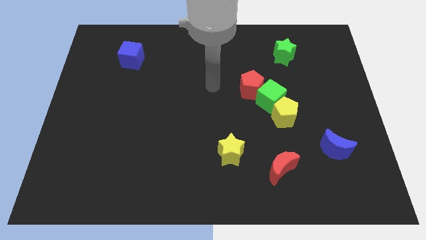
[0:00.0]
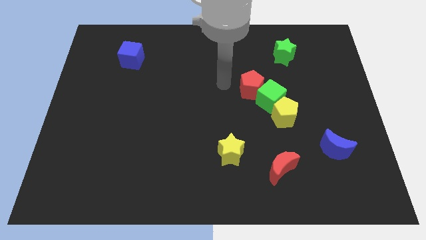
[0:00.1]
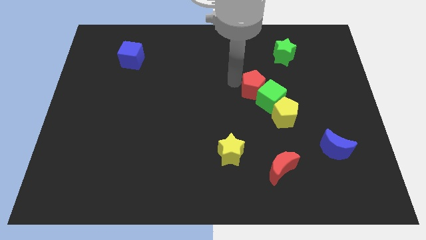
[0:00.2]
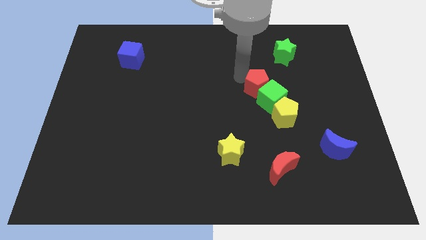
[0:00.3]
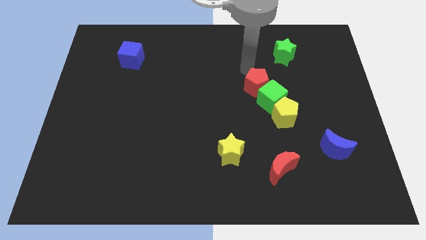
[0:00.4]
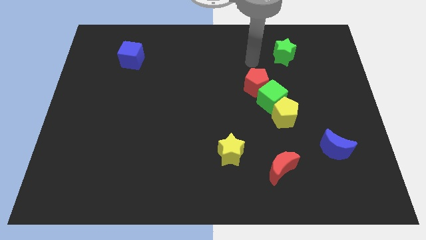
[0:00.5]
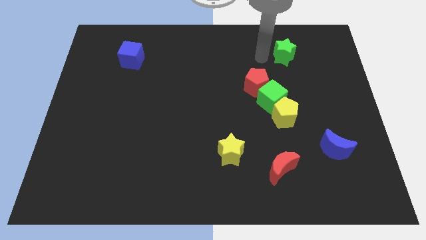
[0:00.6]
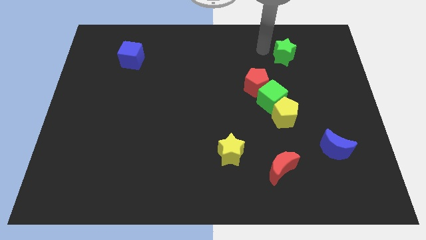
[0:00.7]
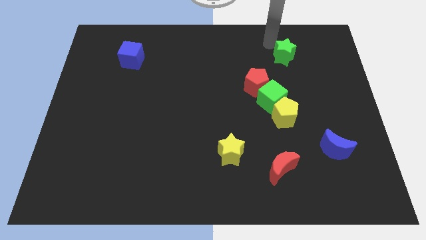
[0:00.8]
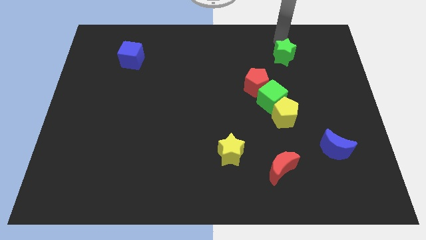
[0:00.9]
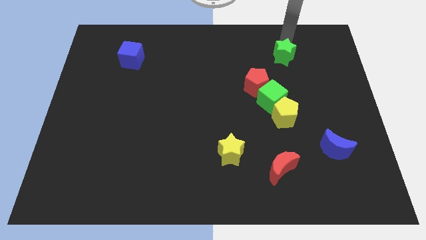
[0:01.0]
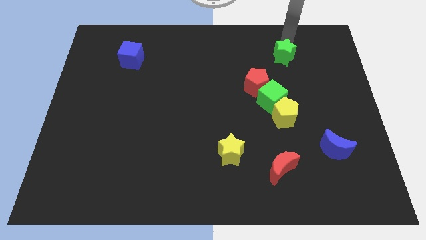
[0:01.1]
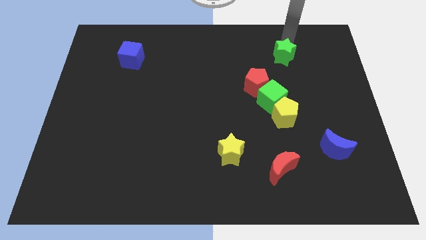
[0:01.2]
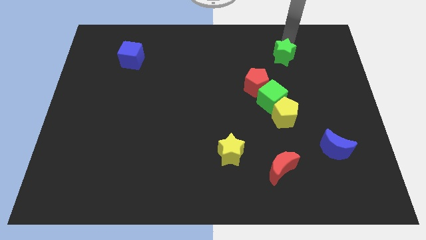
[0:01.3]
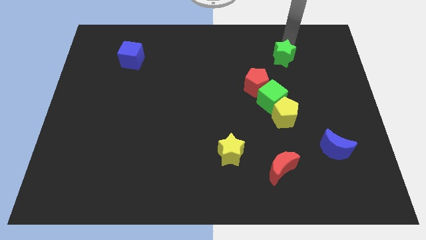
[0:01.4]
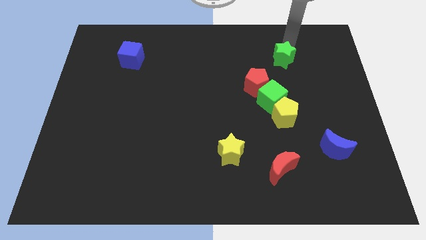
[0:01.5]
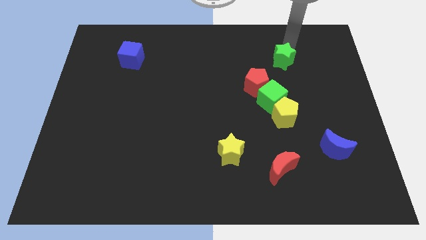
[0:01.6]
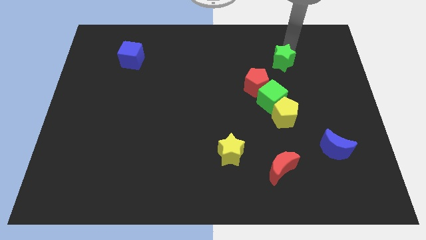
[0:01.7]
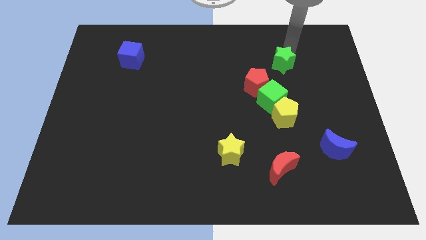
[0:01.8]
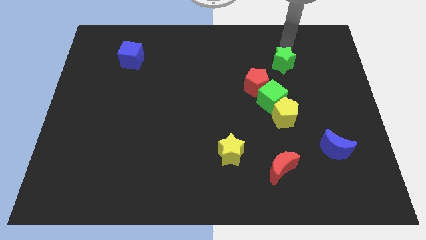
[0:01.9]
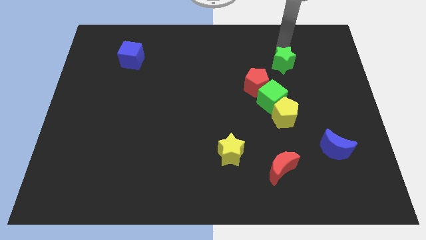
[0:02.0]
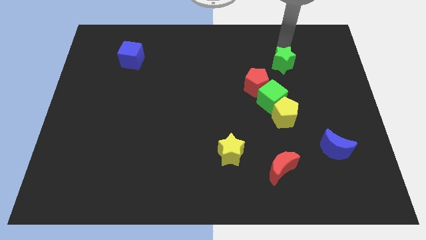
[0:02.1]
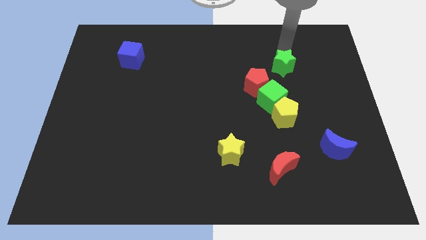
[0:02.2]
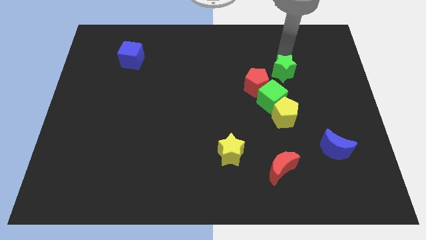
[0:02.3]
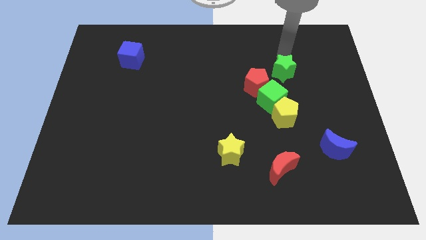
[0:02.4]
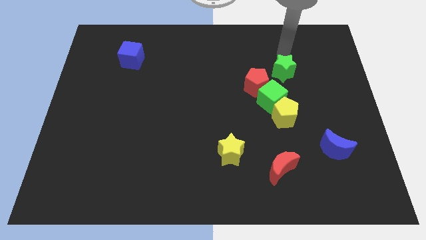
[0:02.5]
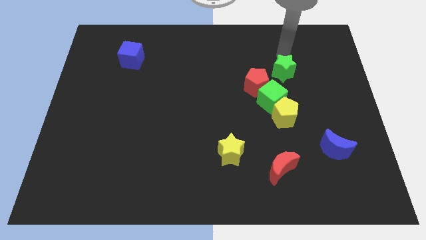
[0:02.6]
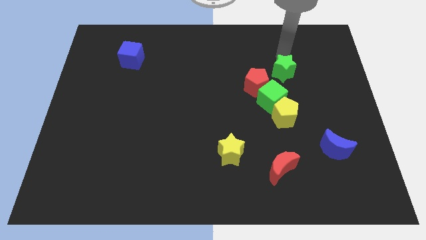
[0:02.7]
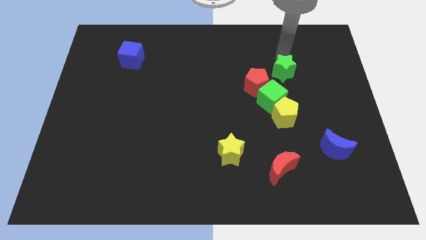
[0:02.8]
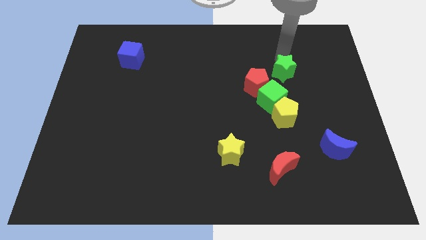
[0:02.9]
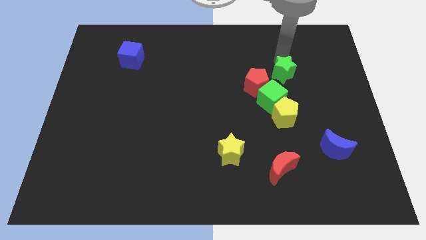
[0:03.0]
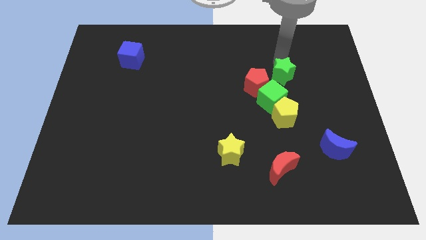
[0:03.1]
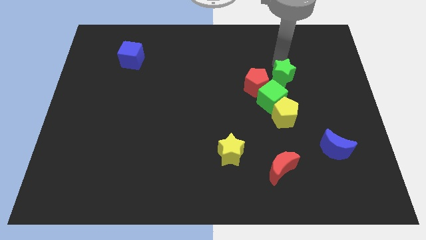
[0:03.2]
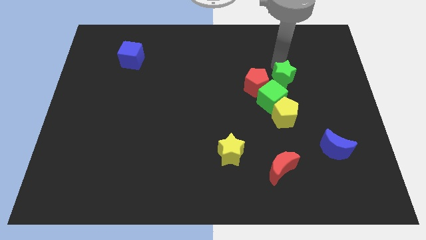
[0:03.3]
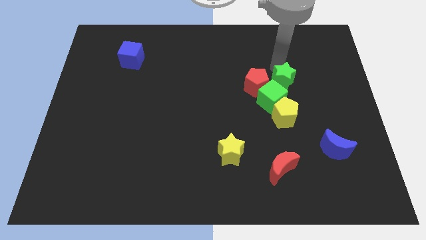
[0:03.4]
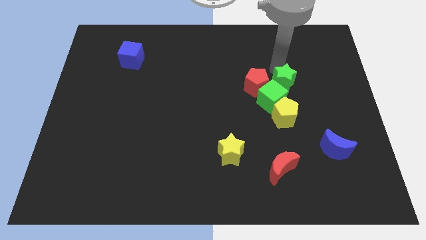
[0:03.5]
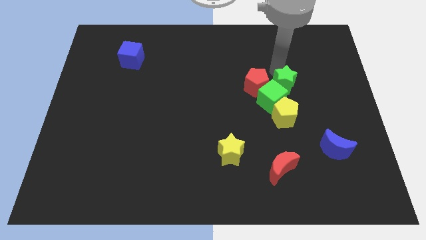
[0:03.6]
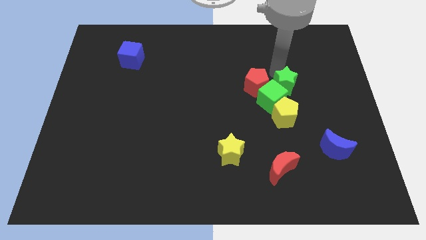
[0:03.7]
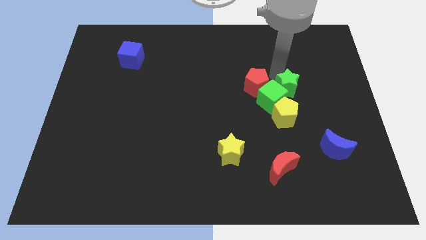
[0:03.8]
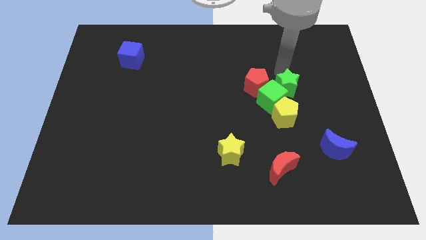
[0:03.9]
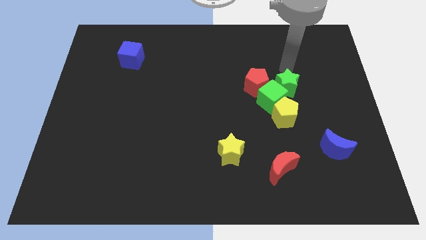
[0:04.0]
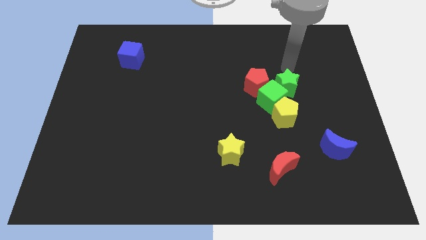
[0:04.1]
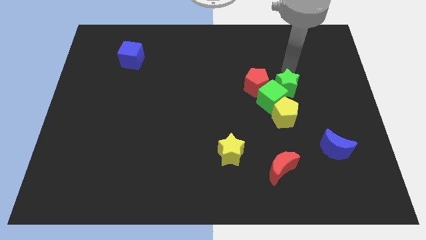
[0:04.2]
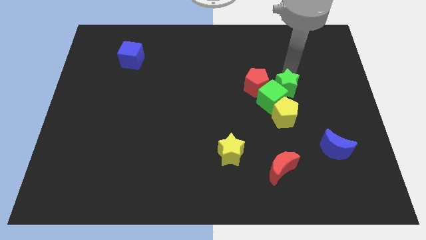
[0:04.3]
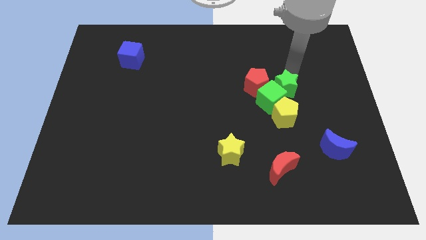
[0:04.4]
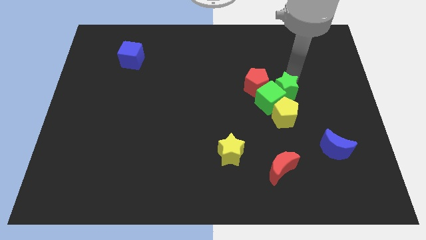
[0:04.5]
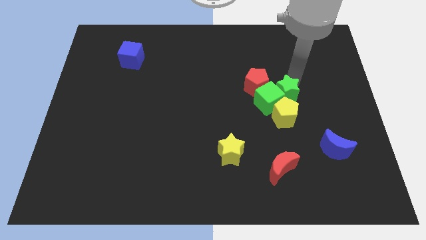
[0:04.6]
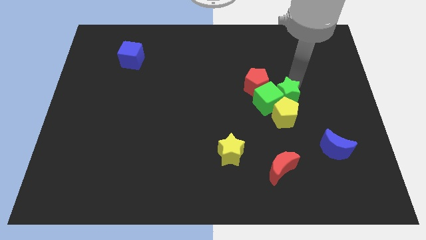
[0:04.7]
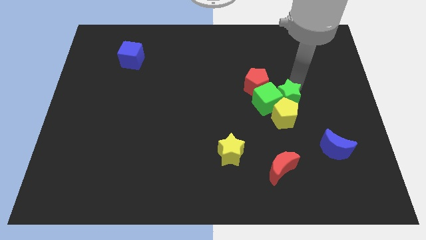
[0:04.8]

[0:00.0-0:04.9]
push the green star to the yellow pentagon

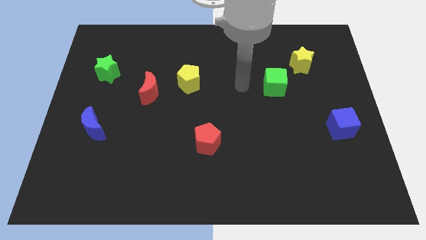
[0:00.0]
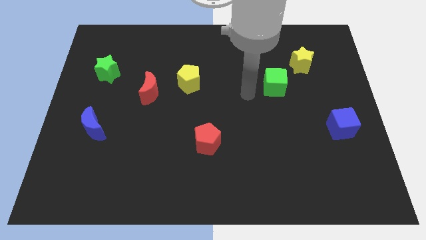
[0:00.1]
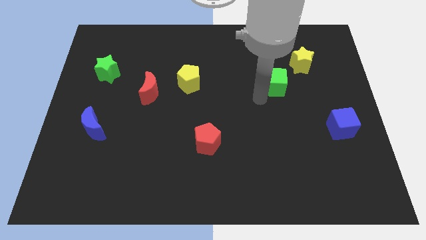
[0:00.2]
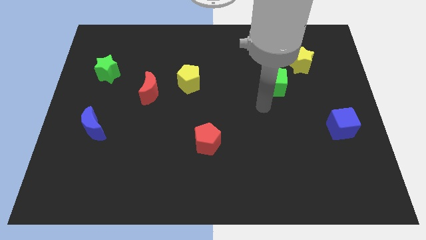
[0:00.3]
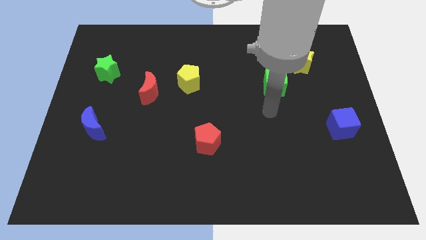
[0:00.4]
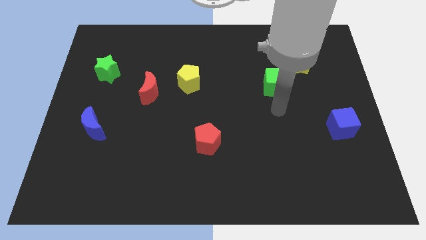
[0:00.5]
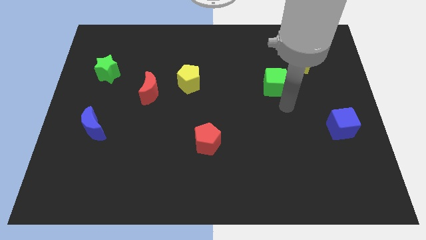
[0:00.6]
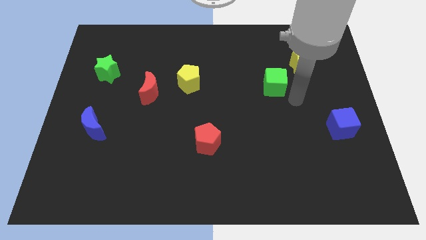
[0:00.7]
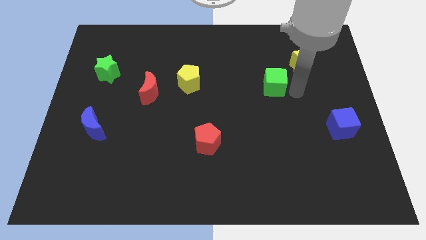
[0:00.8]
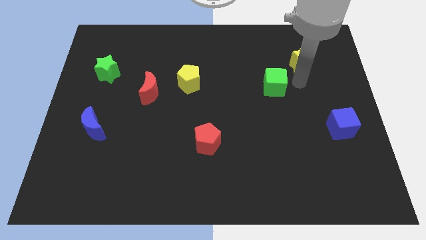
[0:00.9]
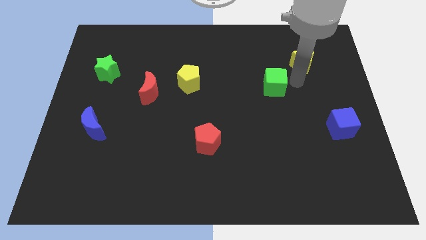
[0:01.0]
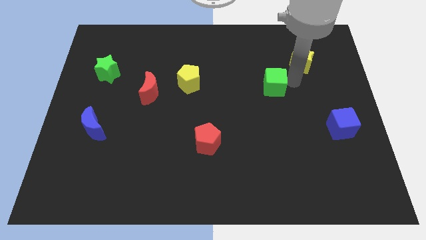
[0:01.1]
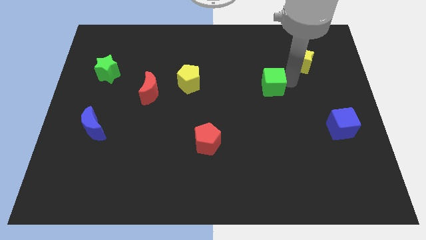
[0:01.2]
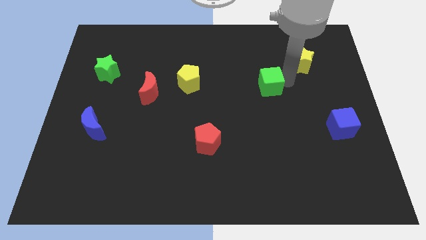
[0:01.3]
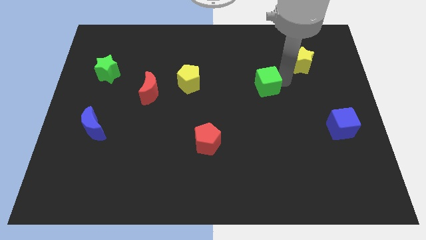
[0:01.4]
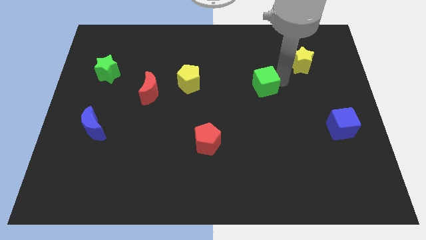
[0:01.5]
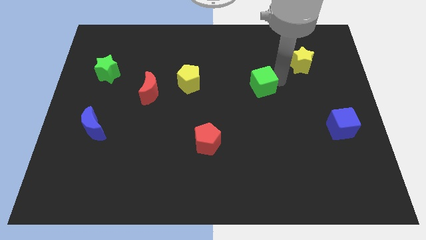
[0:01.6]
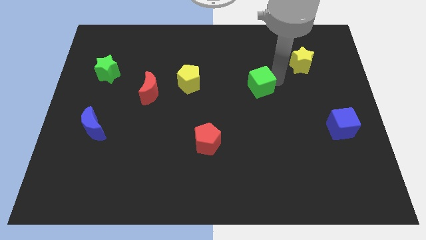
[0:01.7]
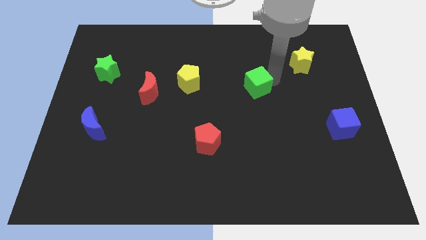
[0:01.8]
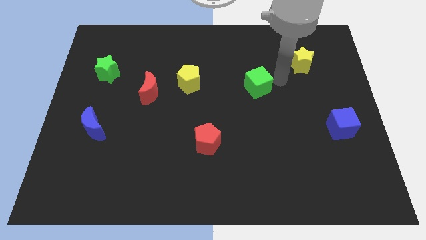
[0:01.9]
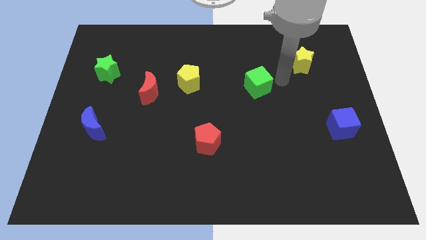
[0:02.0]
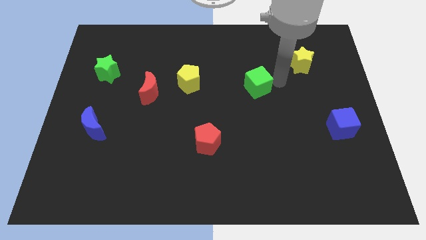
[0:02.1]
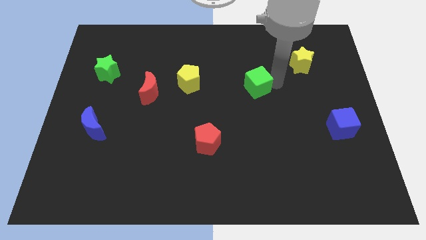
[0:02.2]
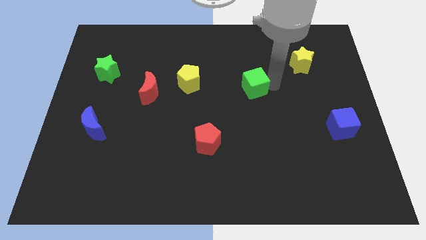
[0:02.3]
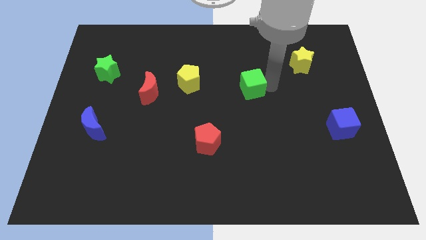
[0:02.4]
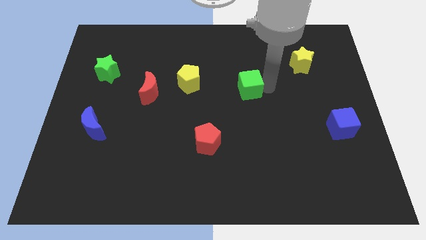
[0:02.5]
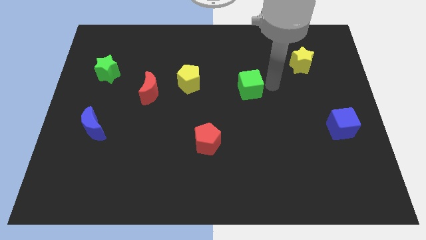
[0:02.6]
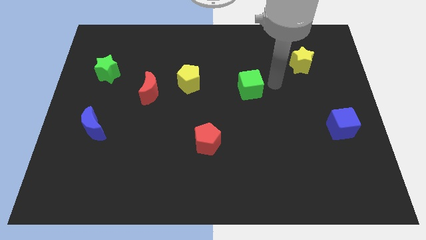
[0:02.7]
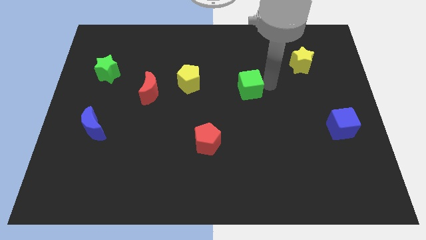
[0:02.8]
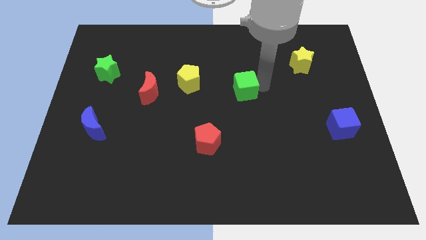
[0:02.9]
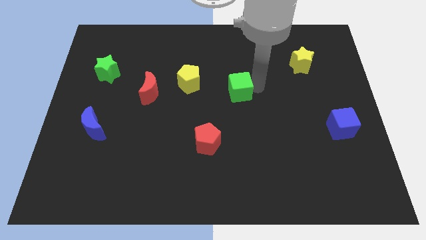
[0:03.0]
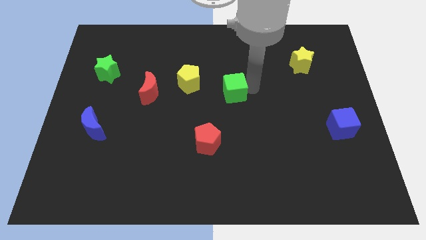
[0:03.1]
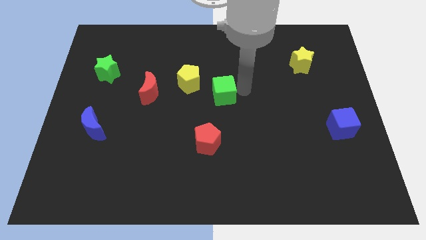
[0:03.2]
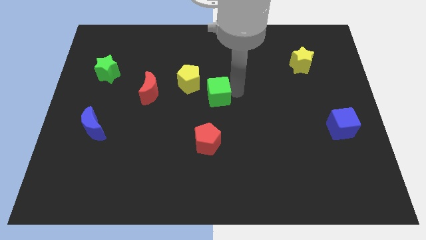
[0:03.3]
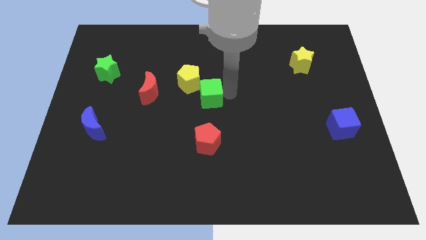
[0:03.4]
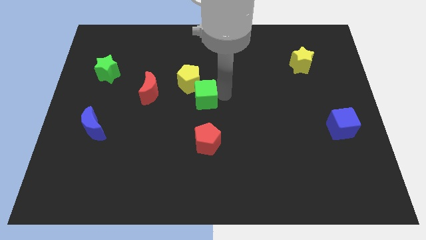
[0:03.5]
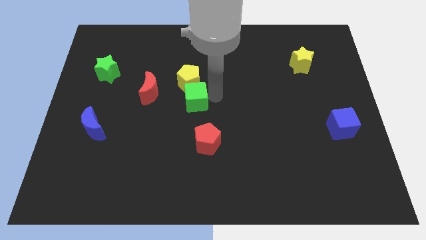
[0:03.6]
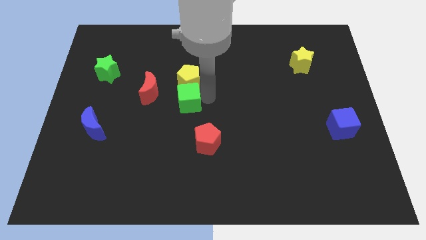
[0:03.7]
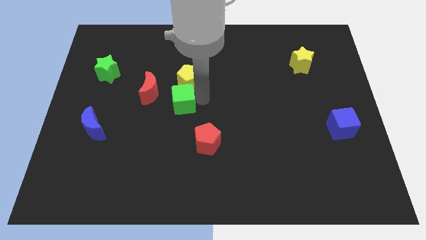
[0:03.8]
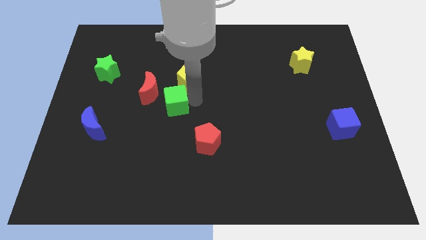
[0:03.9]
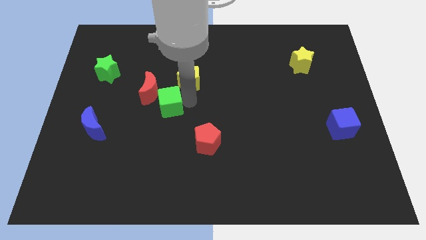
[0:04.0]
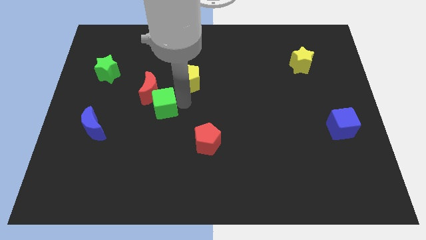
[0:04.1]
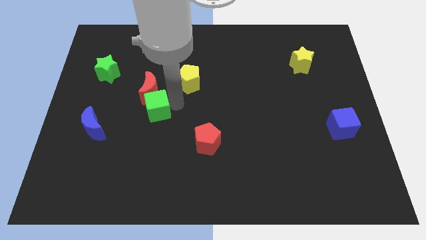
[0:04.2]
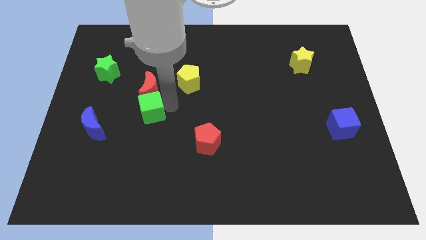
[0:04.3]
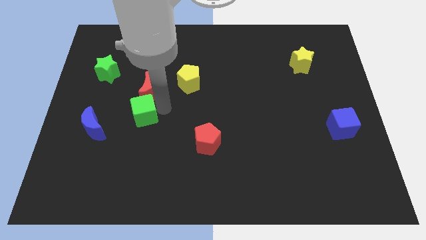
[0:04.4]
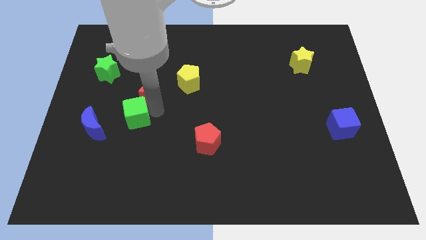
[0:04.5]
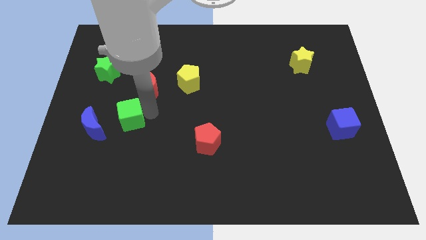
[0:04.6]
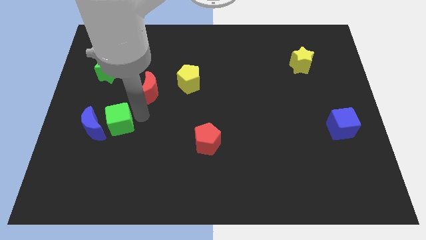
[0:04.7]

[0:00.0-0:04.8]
put the green cube to the blue moon
